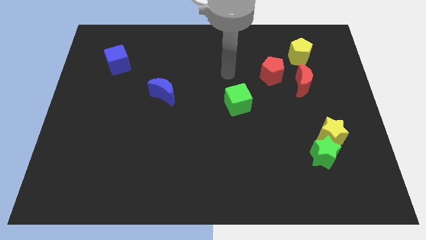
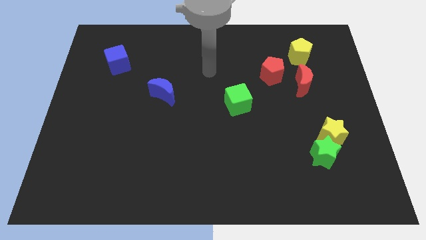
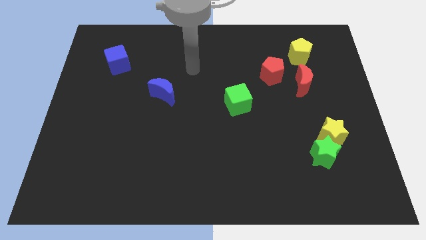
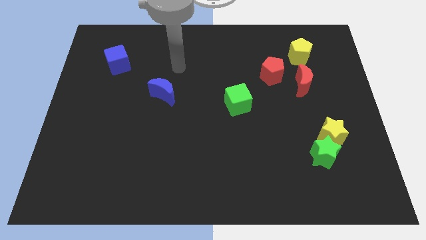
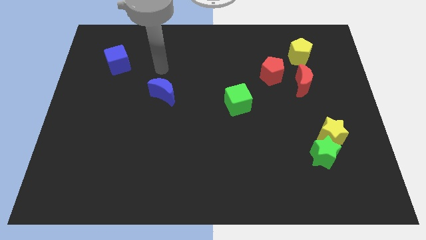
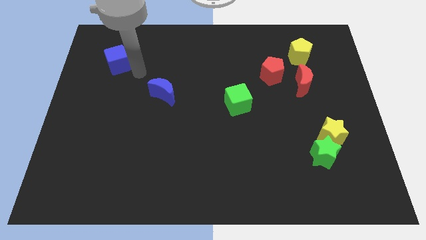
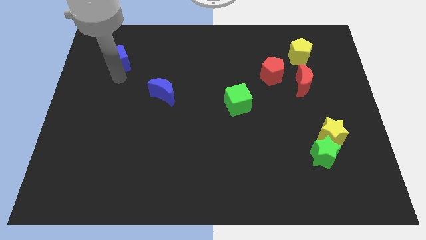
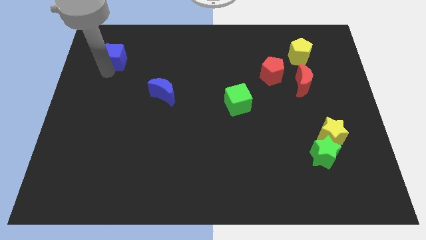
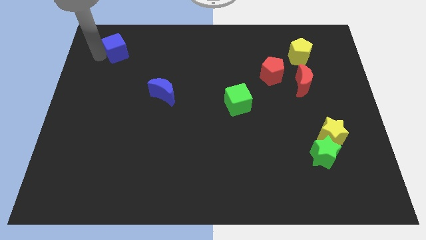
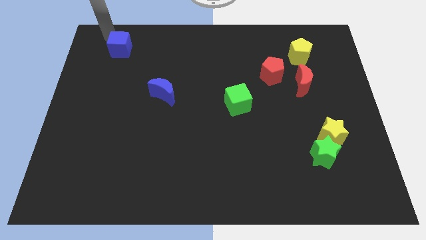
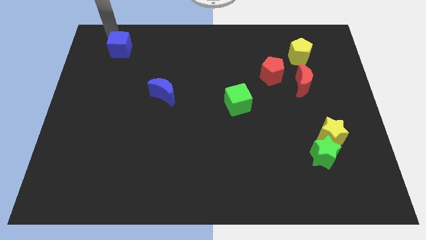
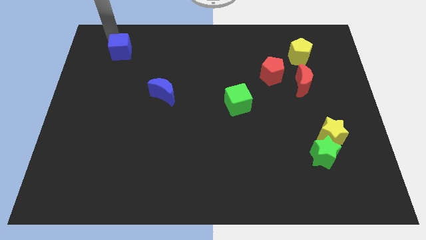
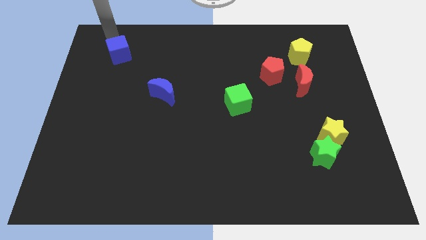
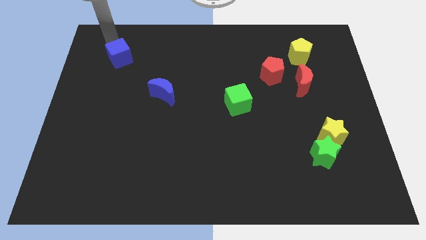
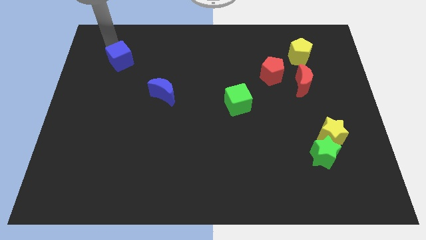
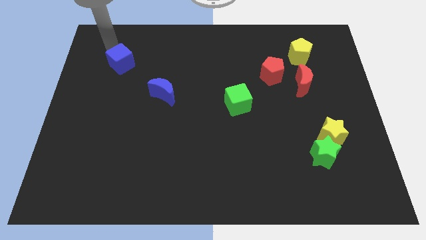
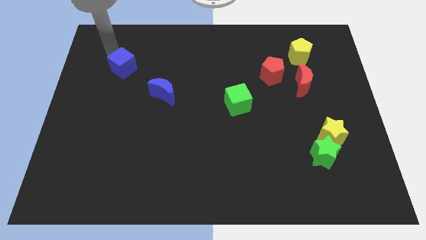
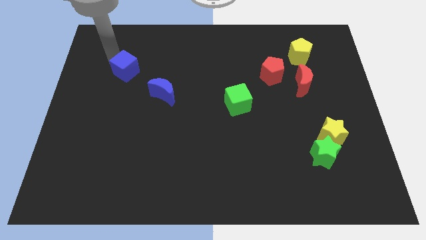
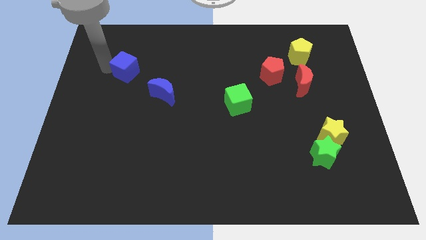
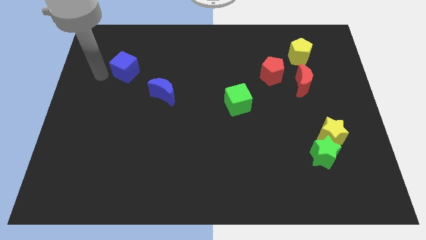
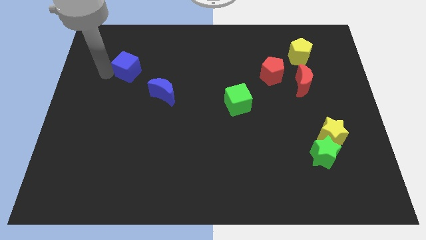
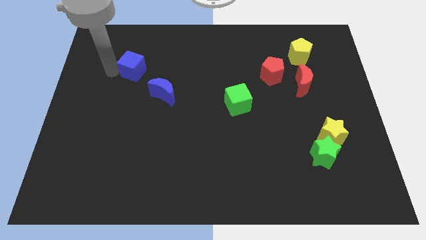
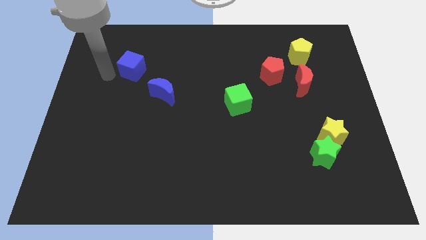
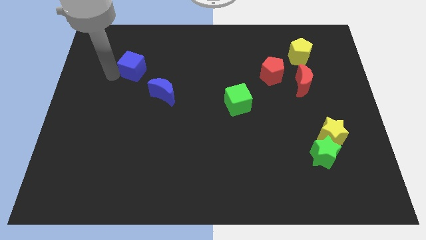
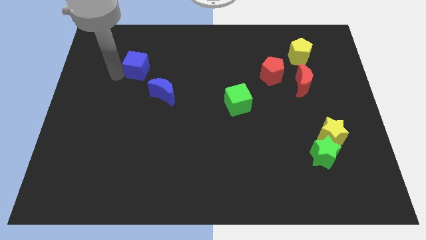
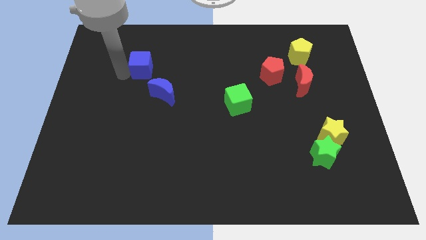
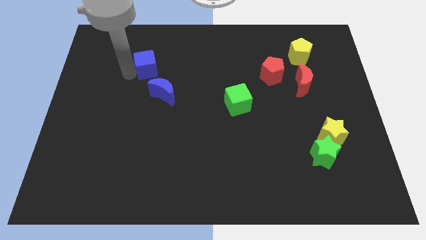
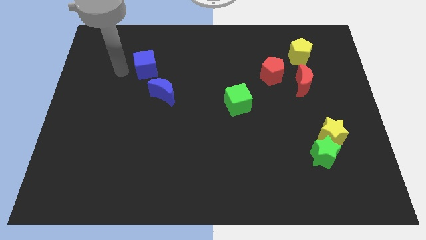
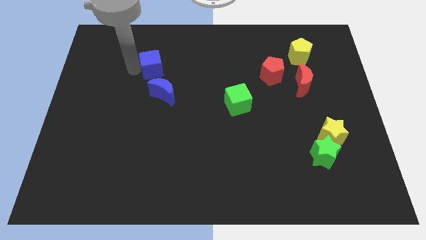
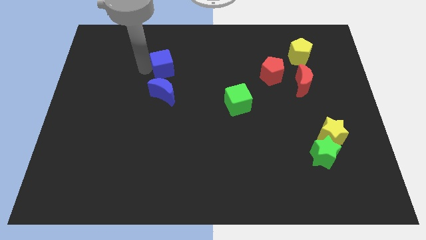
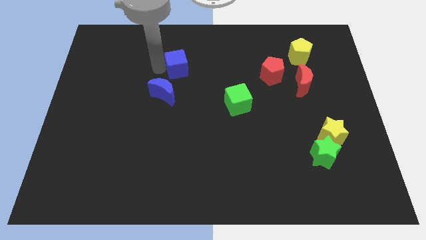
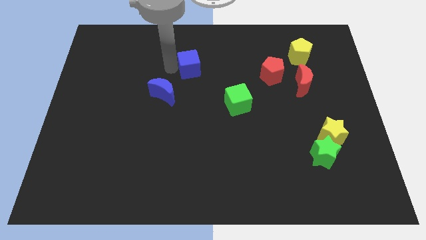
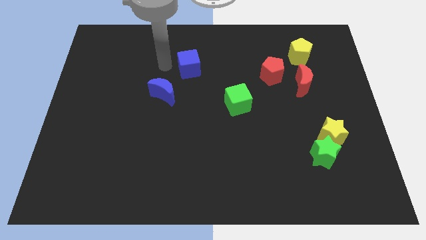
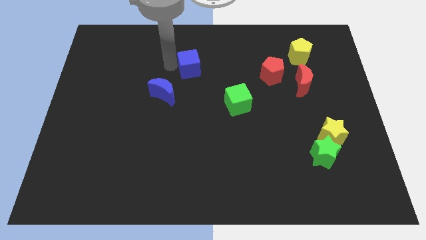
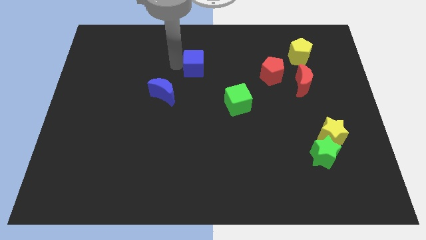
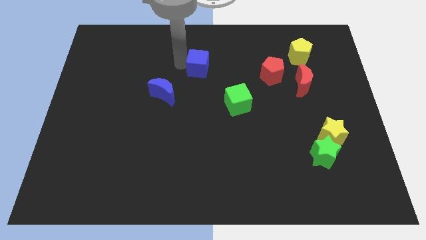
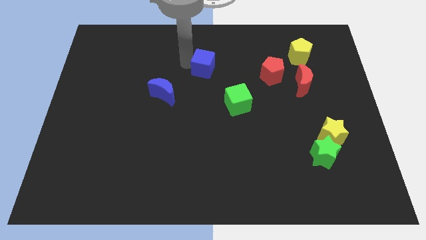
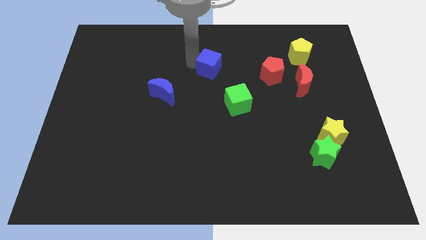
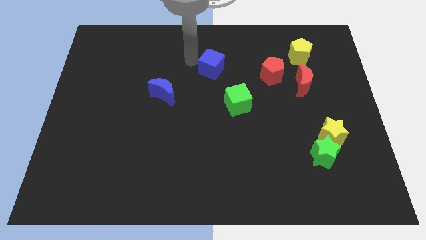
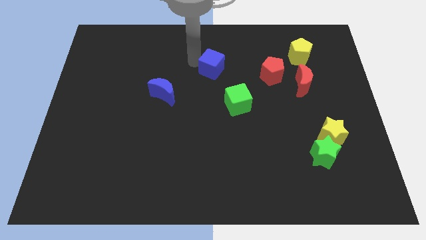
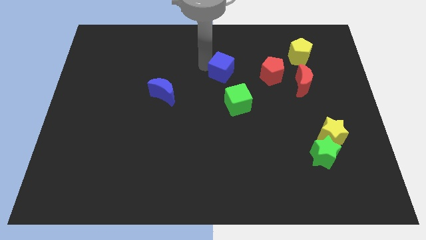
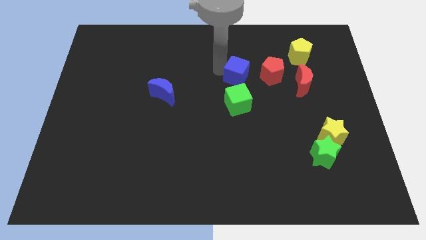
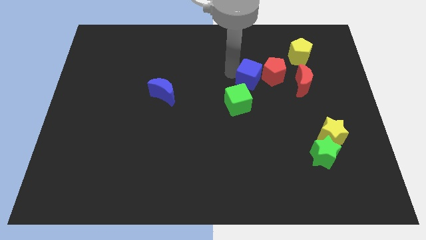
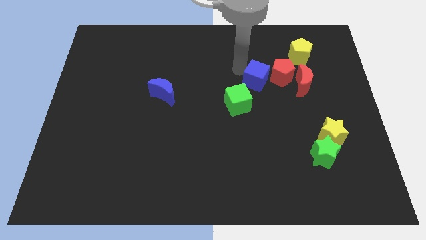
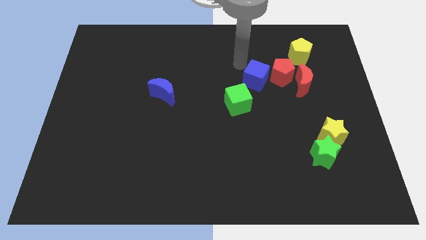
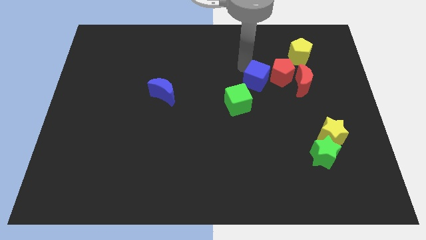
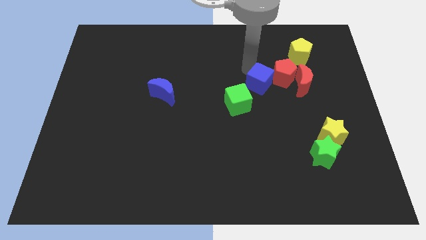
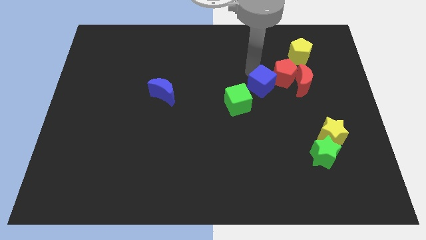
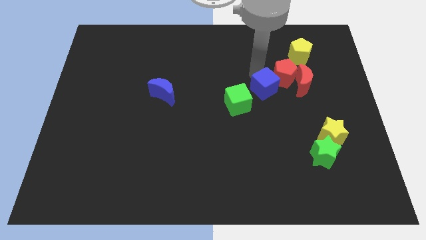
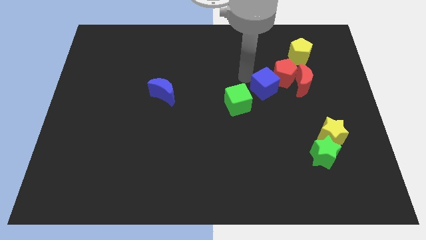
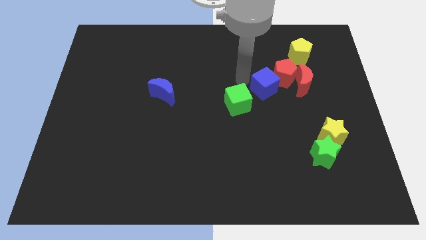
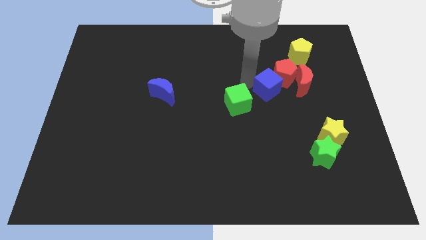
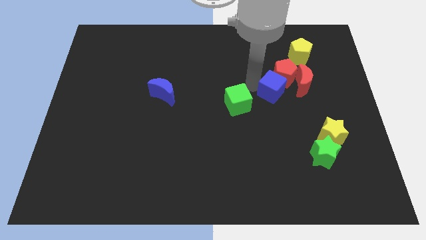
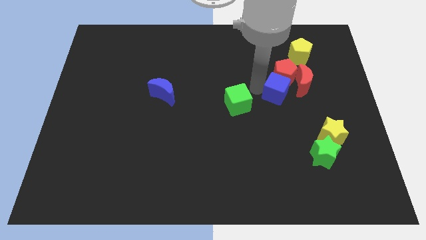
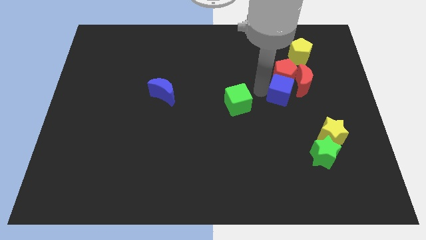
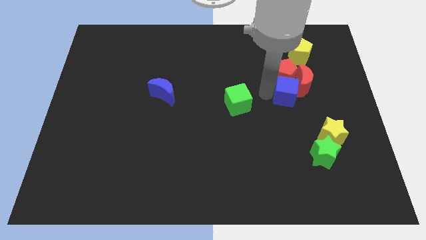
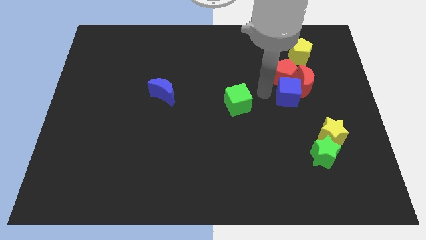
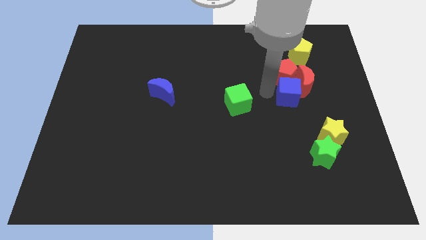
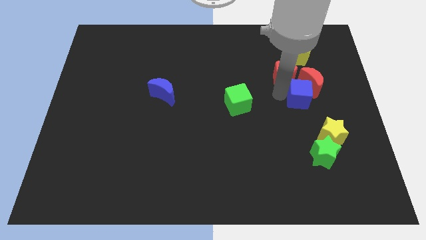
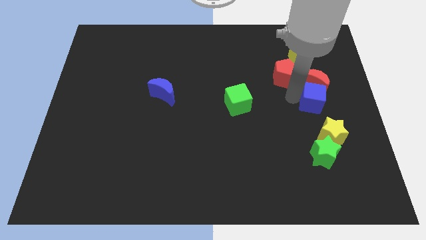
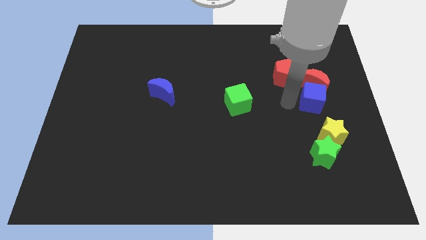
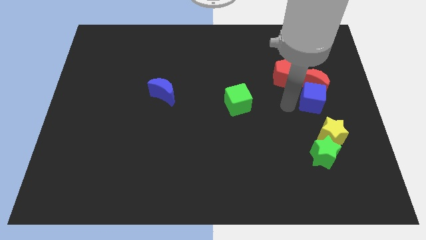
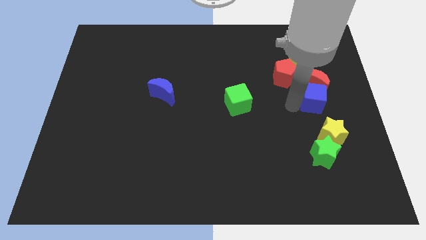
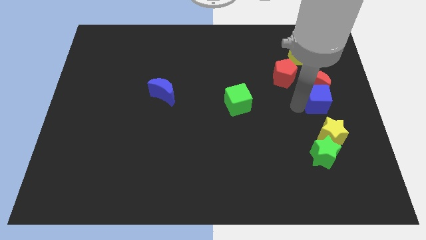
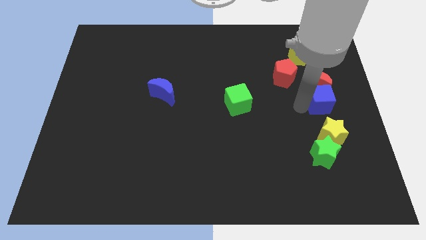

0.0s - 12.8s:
push the blue cube to the right side
